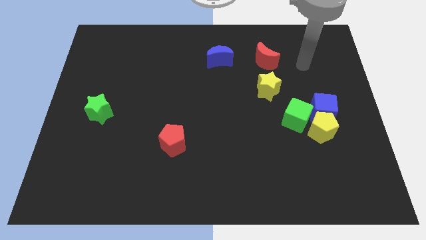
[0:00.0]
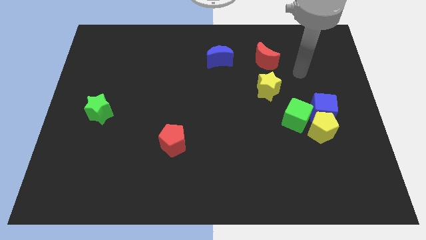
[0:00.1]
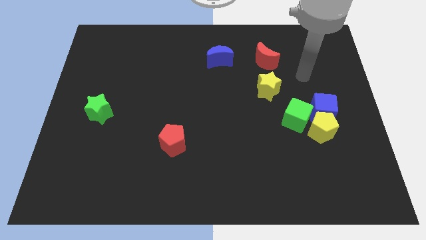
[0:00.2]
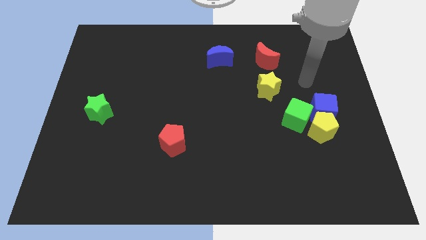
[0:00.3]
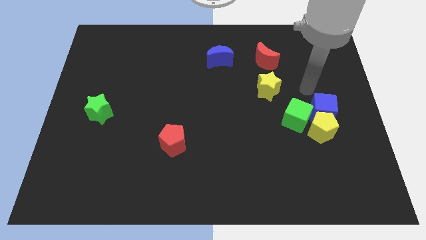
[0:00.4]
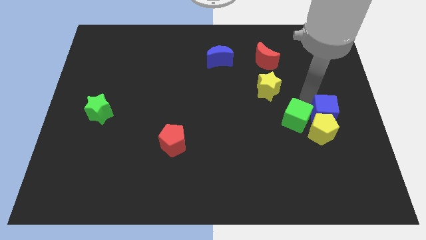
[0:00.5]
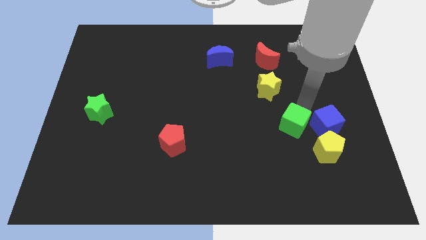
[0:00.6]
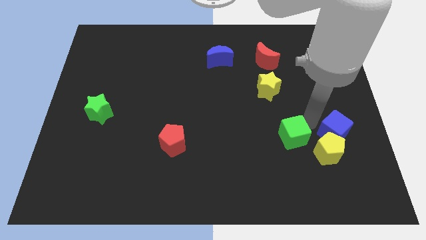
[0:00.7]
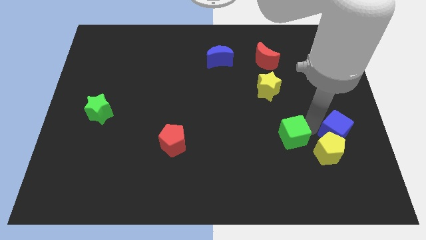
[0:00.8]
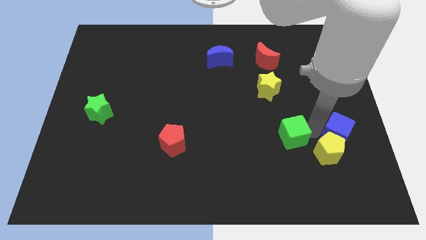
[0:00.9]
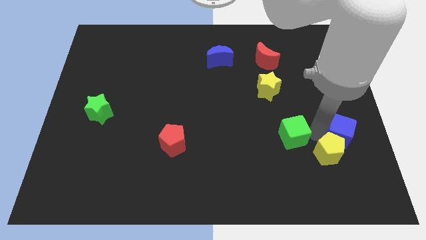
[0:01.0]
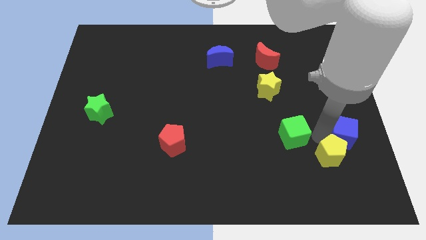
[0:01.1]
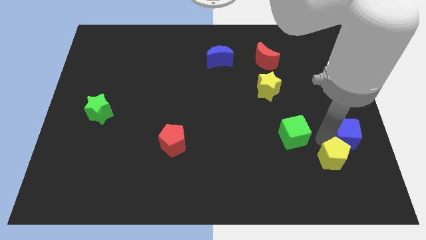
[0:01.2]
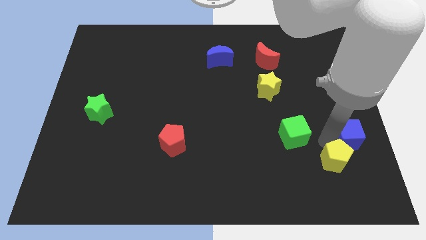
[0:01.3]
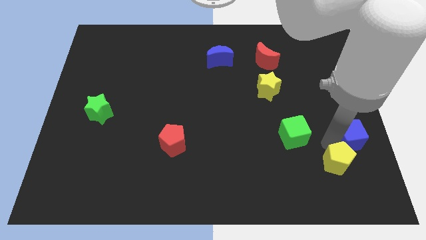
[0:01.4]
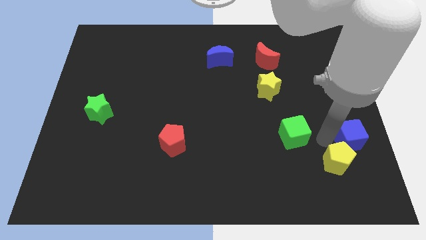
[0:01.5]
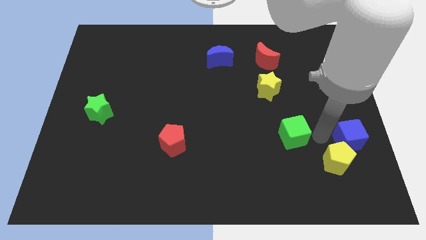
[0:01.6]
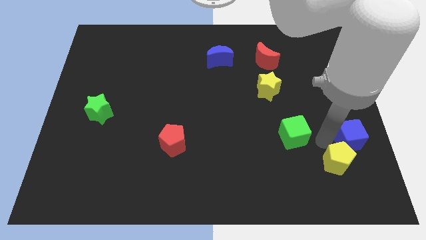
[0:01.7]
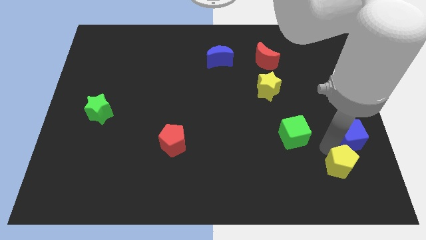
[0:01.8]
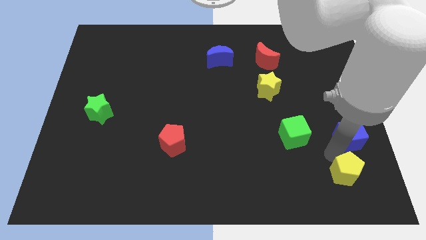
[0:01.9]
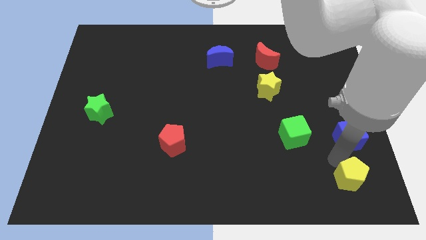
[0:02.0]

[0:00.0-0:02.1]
pull the yellow pentagon apart from the blue cube and green cube

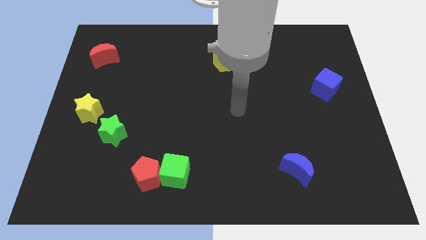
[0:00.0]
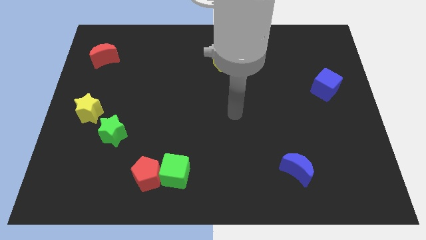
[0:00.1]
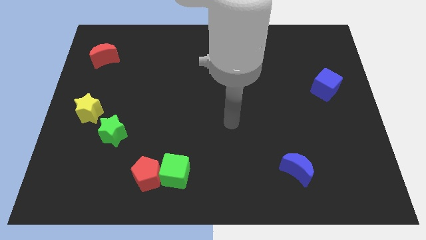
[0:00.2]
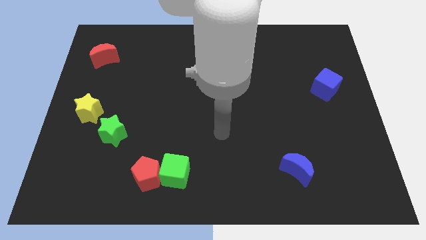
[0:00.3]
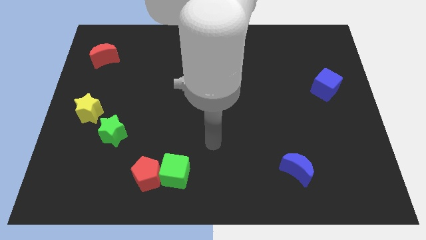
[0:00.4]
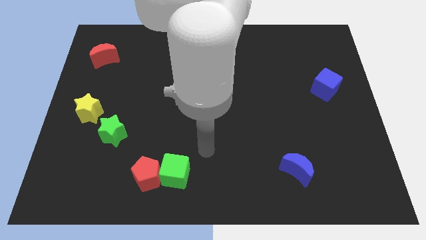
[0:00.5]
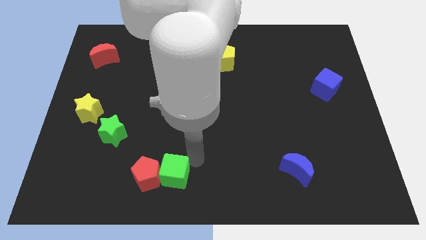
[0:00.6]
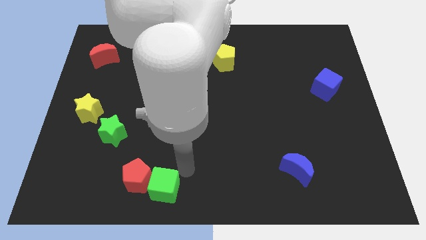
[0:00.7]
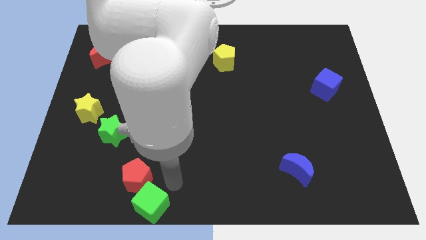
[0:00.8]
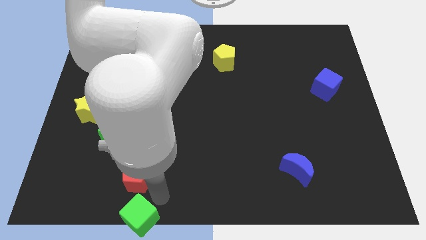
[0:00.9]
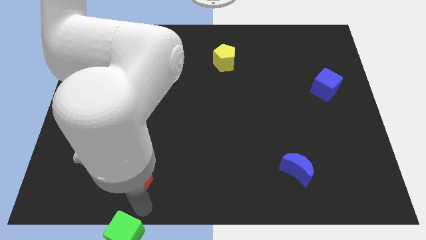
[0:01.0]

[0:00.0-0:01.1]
pull the red pentagon apart from the green cube

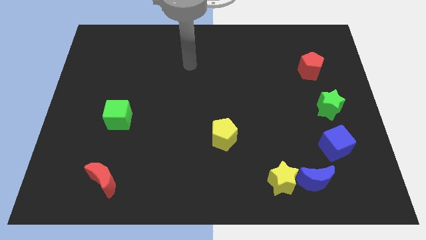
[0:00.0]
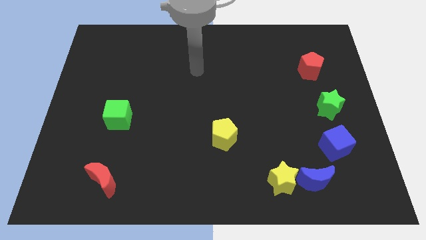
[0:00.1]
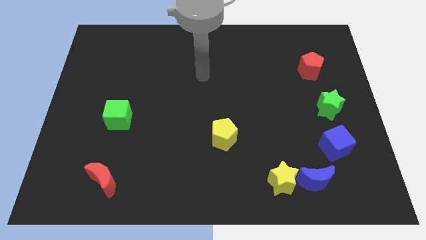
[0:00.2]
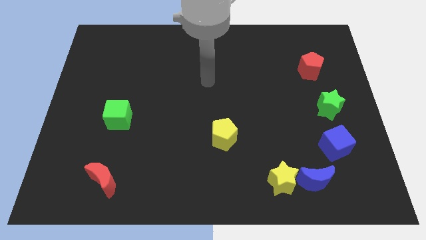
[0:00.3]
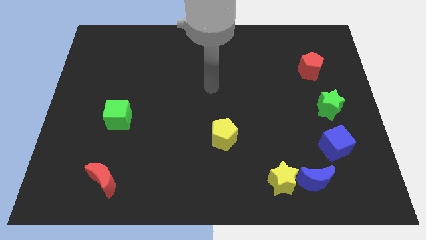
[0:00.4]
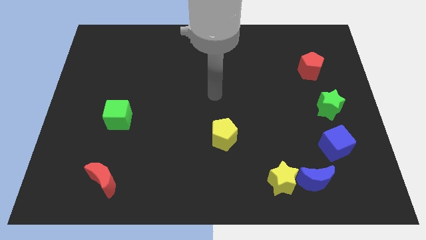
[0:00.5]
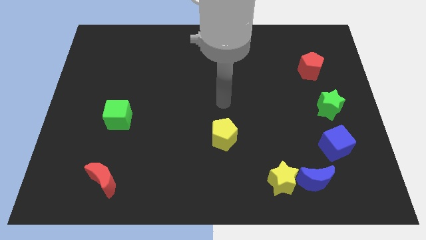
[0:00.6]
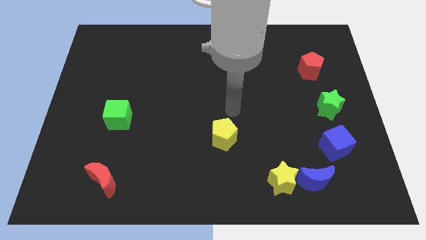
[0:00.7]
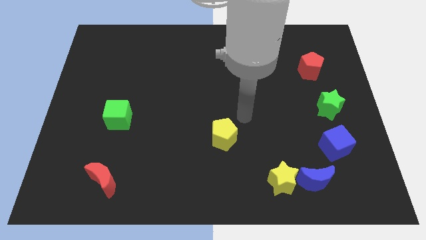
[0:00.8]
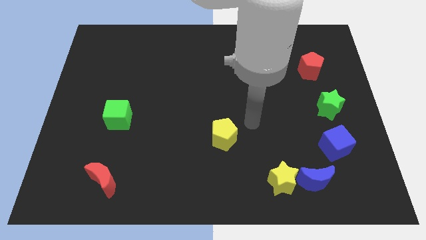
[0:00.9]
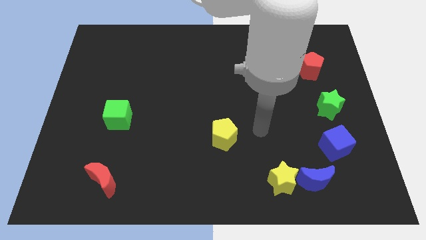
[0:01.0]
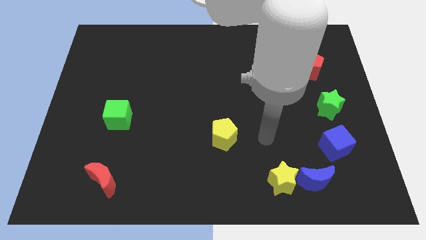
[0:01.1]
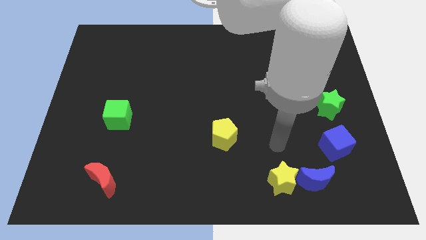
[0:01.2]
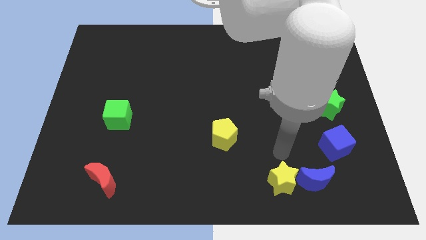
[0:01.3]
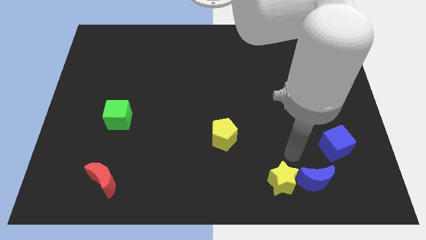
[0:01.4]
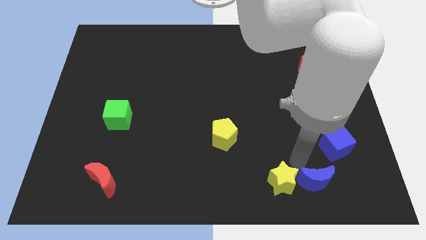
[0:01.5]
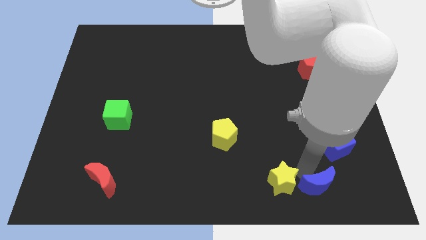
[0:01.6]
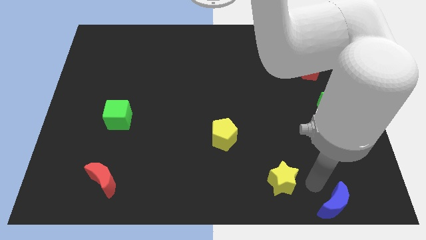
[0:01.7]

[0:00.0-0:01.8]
pull the yellow star apart from the blue moon

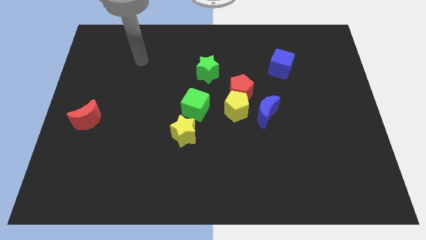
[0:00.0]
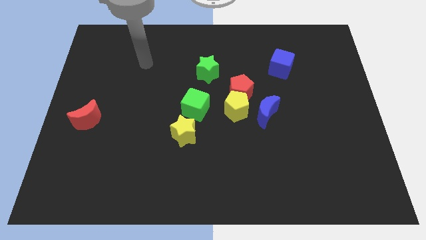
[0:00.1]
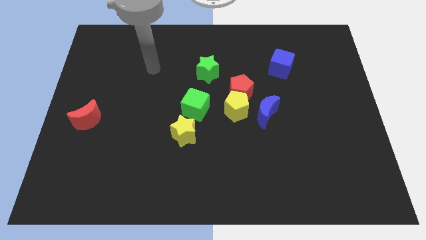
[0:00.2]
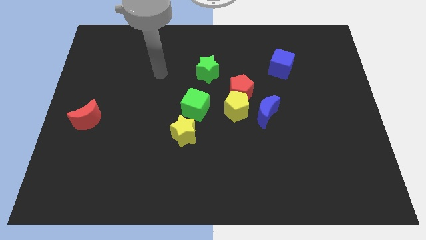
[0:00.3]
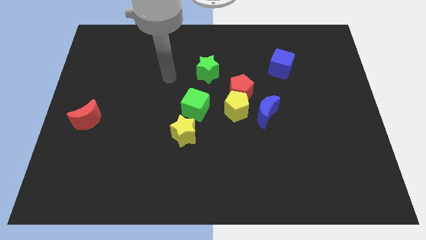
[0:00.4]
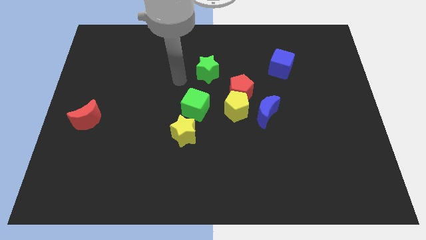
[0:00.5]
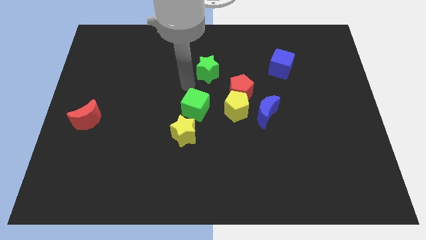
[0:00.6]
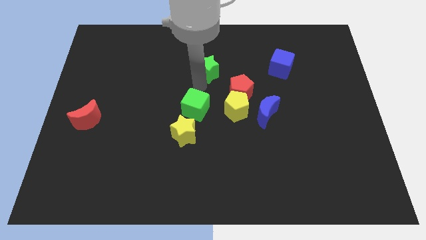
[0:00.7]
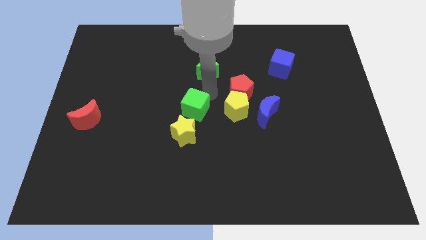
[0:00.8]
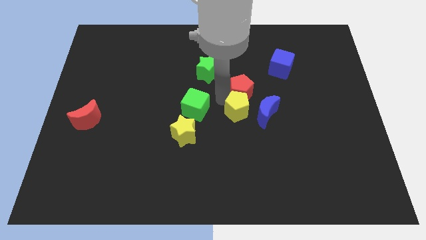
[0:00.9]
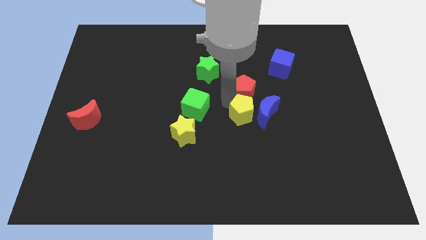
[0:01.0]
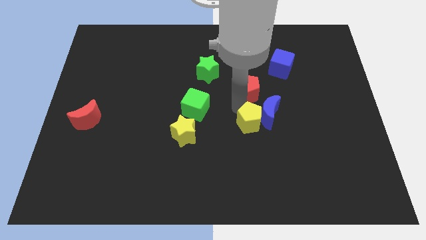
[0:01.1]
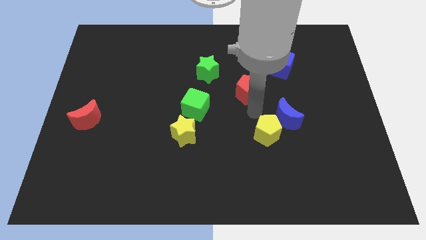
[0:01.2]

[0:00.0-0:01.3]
separate the red pentagon from the yellow pentagon and blue moon

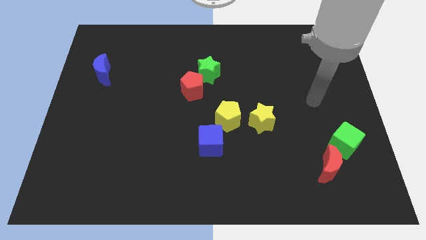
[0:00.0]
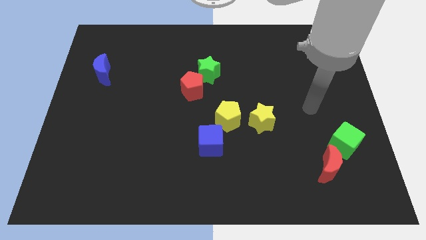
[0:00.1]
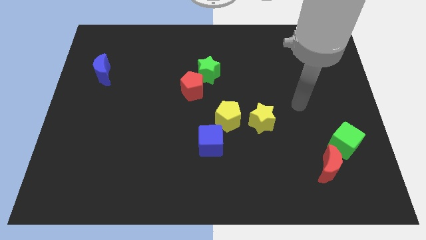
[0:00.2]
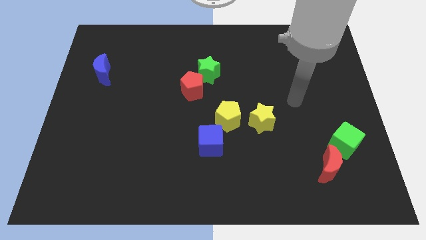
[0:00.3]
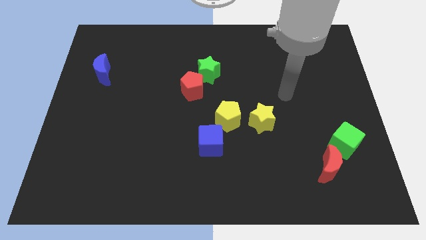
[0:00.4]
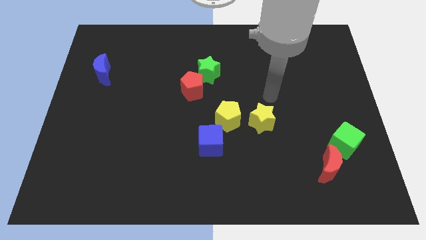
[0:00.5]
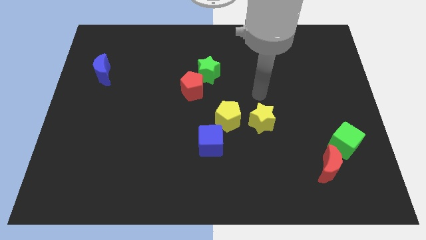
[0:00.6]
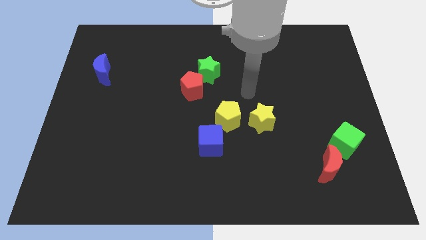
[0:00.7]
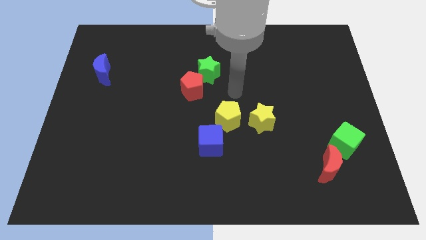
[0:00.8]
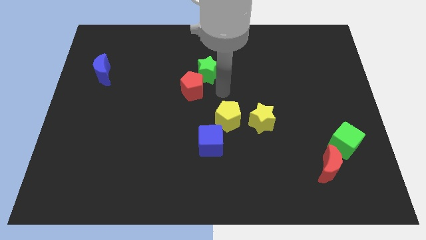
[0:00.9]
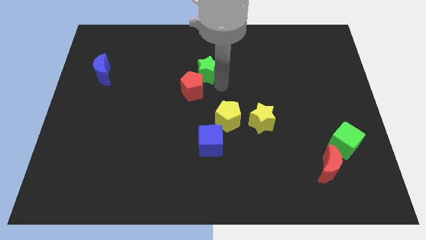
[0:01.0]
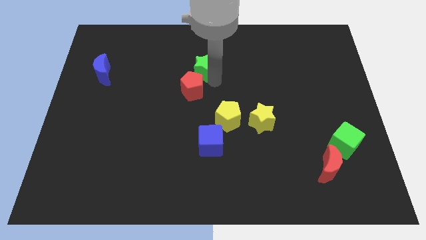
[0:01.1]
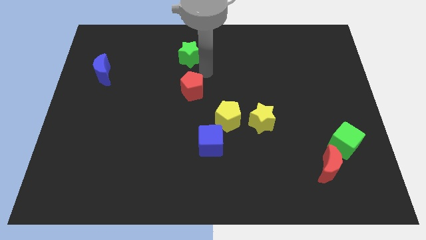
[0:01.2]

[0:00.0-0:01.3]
separate the red pentagon from the green star

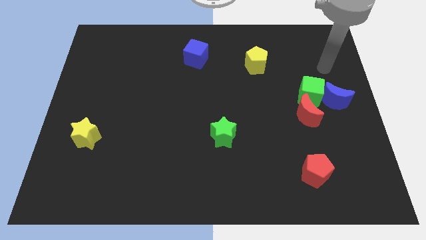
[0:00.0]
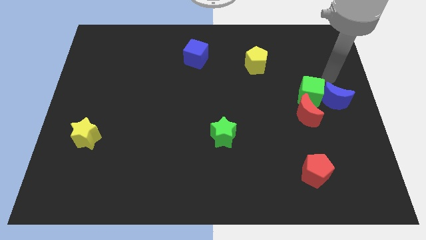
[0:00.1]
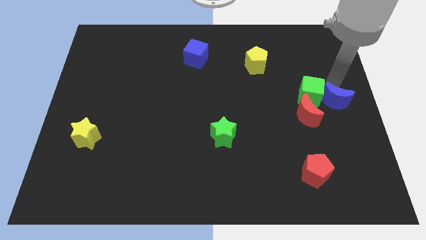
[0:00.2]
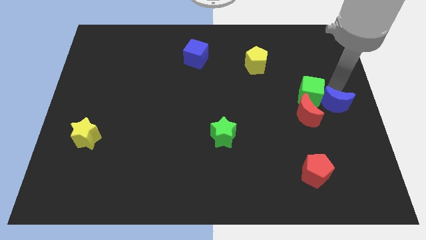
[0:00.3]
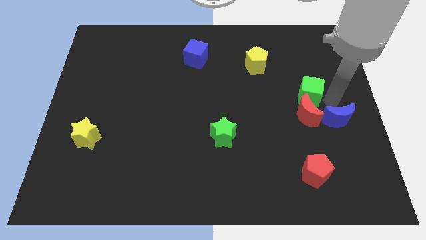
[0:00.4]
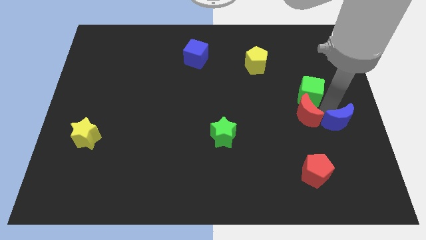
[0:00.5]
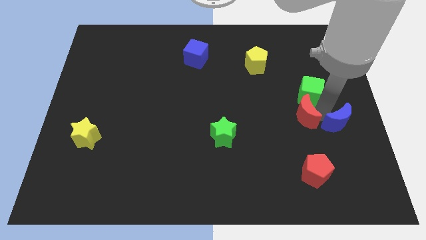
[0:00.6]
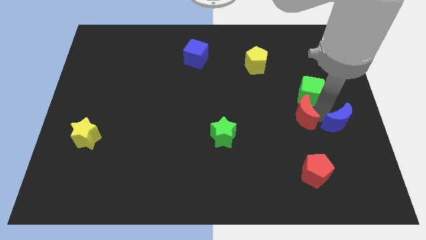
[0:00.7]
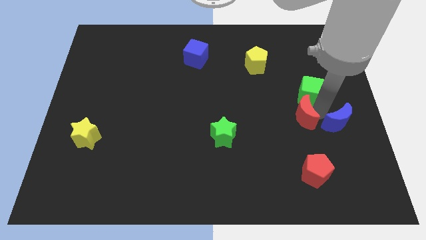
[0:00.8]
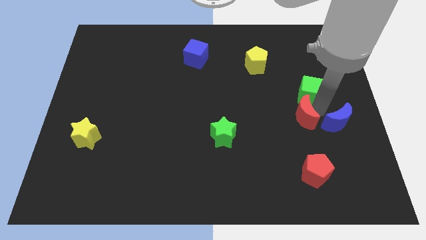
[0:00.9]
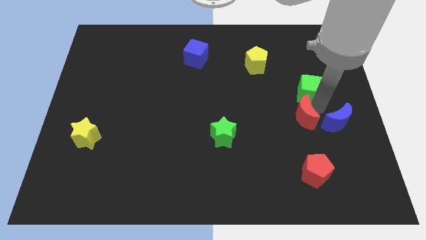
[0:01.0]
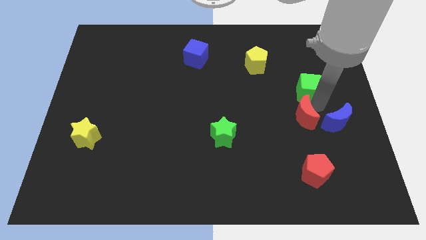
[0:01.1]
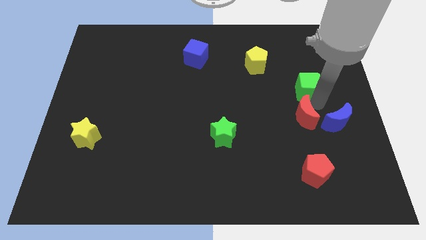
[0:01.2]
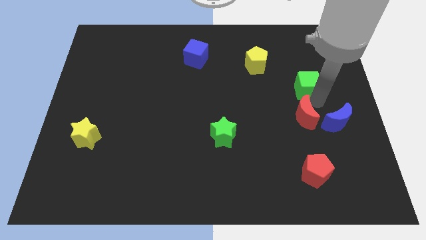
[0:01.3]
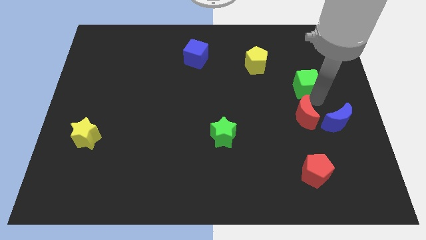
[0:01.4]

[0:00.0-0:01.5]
move the green cube away from the blue moon and red moon

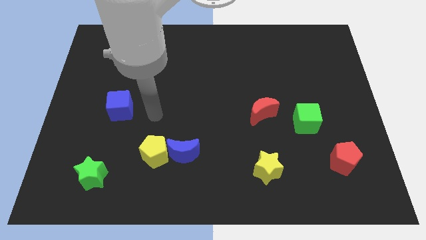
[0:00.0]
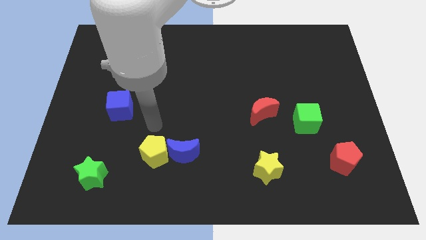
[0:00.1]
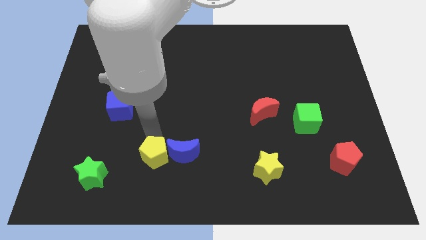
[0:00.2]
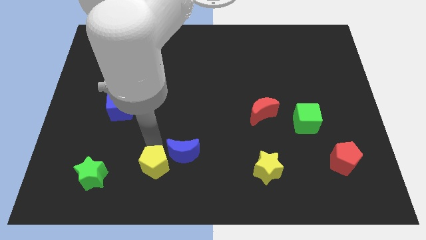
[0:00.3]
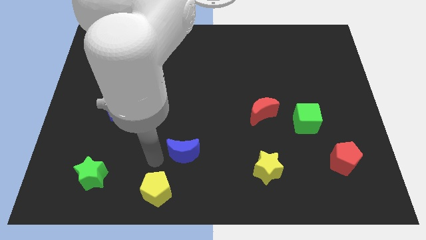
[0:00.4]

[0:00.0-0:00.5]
pull the blue moon apart from the yellow pentagon
